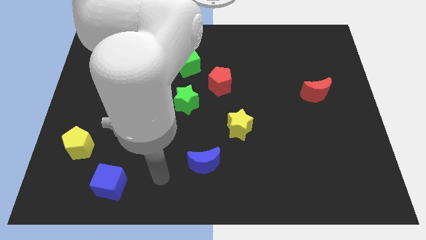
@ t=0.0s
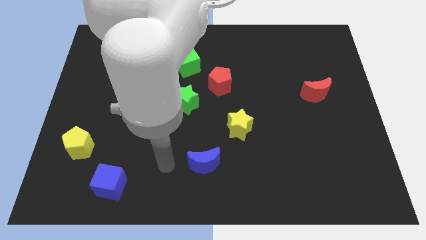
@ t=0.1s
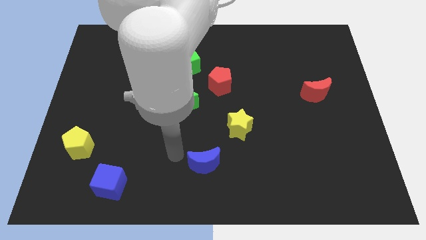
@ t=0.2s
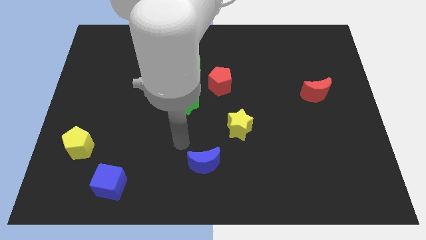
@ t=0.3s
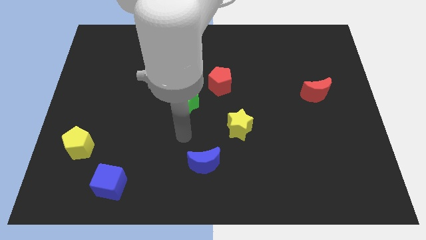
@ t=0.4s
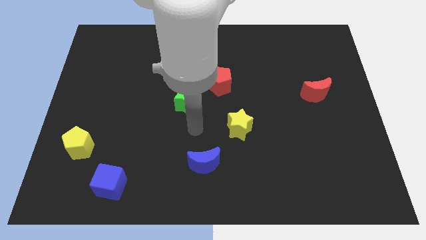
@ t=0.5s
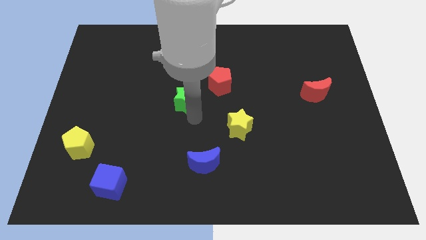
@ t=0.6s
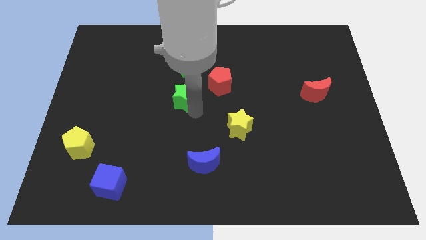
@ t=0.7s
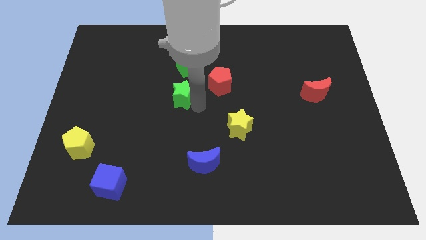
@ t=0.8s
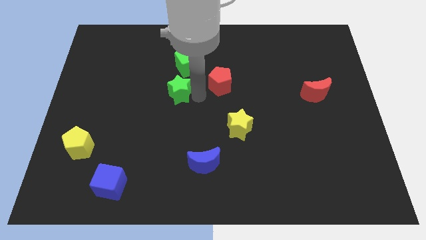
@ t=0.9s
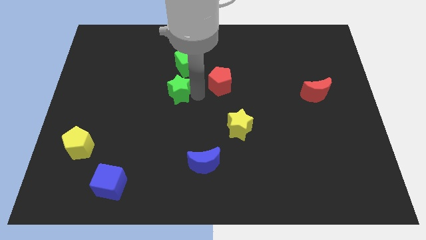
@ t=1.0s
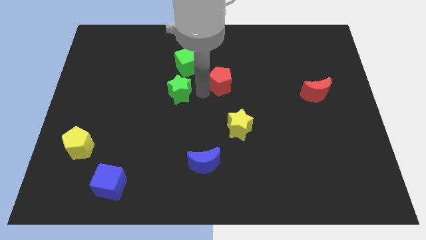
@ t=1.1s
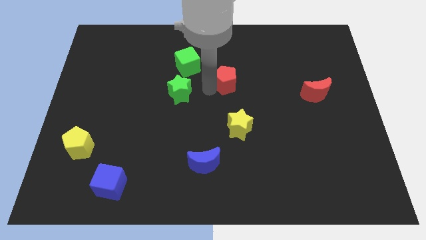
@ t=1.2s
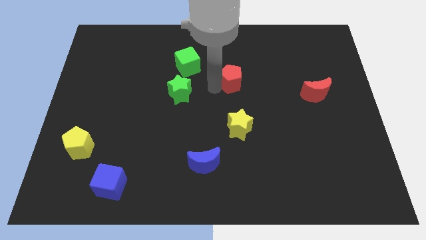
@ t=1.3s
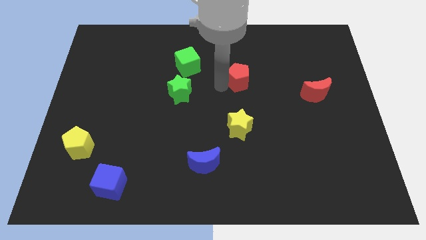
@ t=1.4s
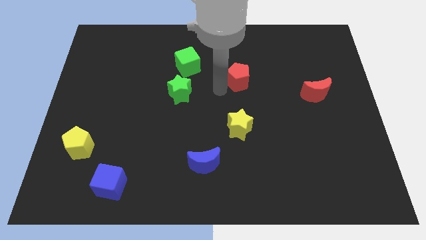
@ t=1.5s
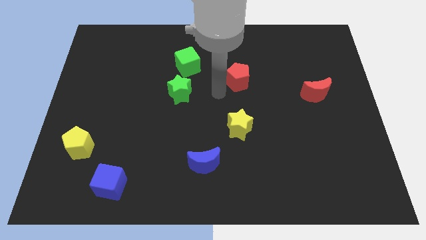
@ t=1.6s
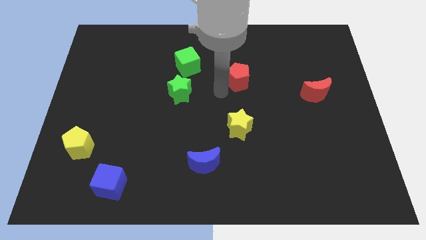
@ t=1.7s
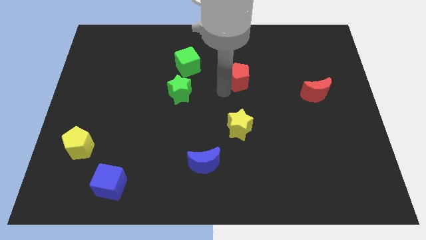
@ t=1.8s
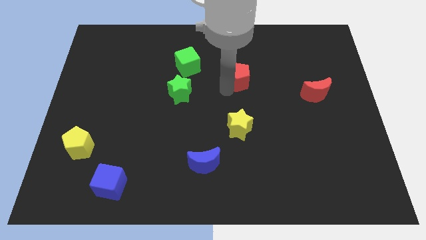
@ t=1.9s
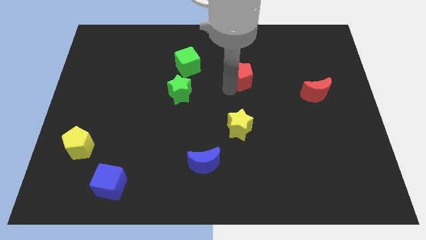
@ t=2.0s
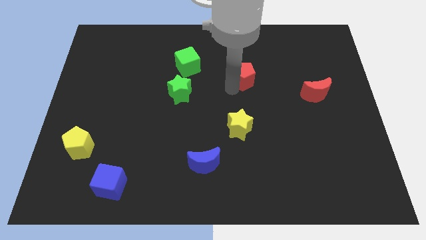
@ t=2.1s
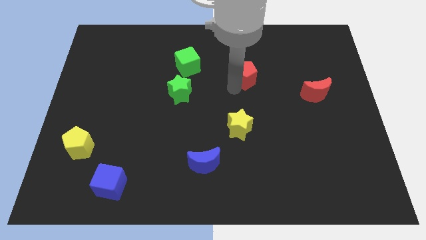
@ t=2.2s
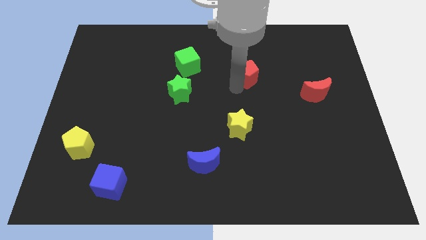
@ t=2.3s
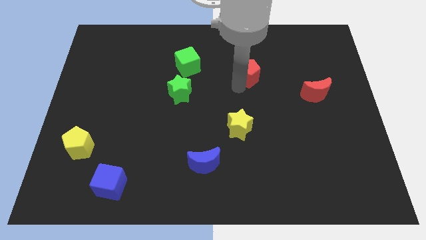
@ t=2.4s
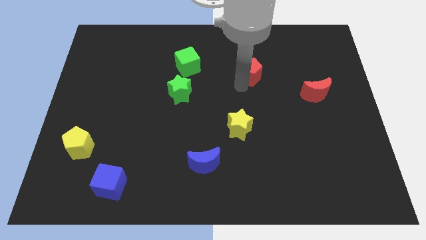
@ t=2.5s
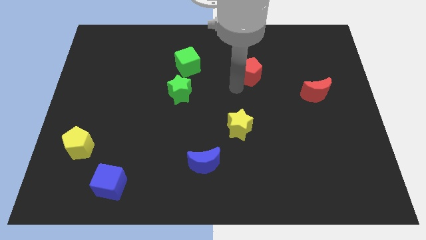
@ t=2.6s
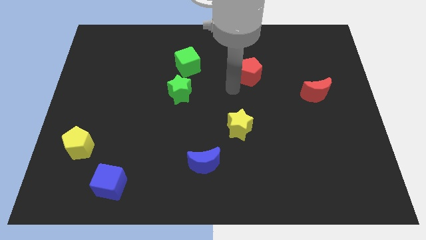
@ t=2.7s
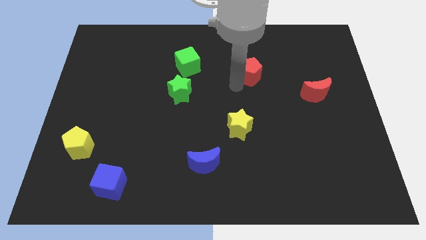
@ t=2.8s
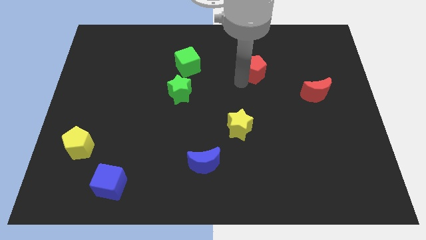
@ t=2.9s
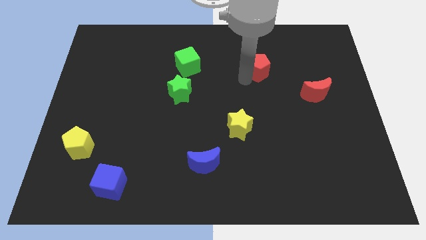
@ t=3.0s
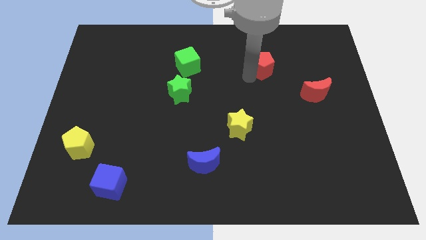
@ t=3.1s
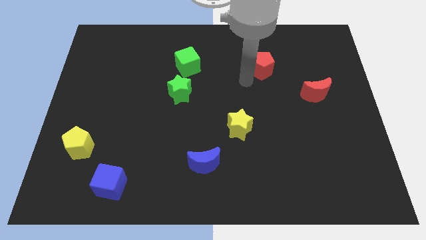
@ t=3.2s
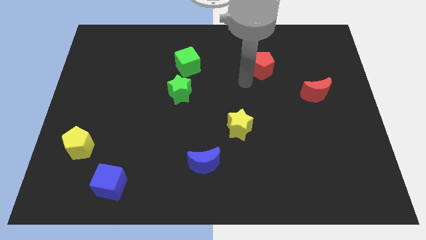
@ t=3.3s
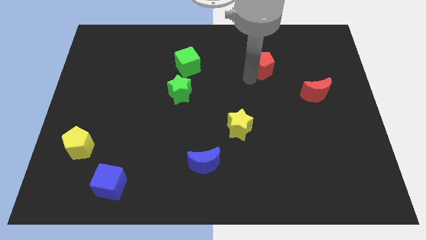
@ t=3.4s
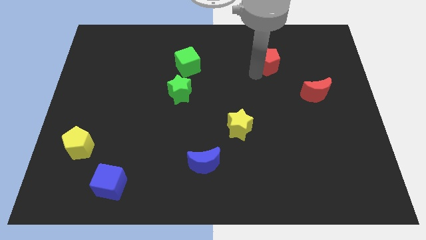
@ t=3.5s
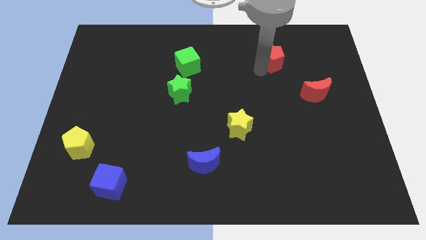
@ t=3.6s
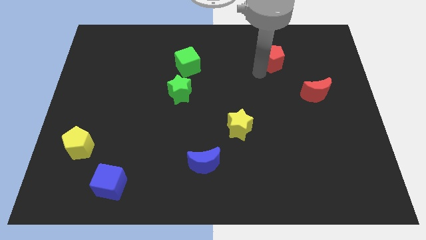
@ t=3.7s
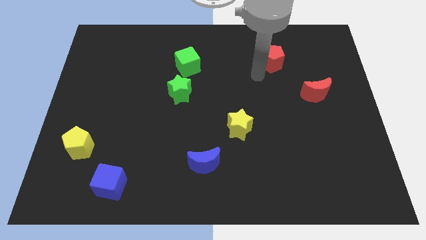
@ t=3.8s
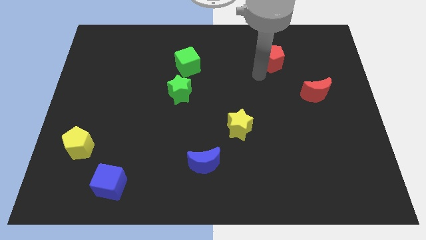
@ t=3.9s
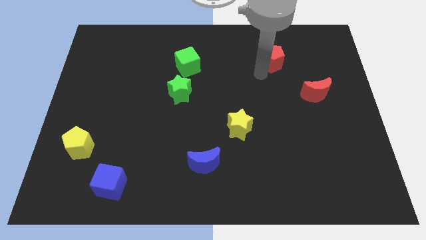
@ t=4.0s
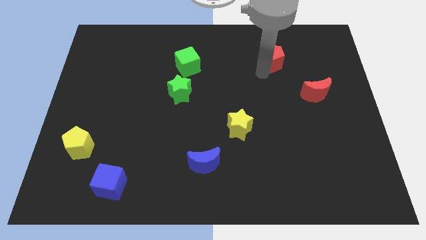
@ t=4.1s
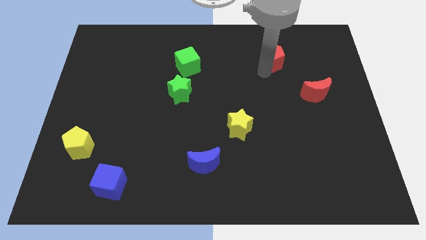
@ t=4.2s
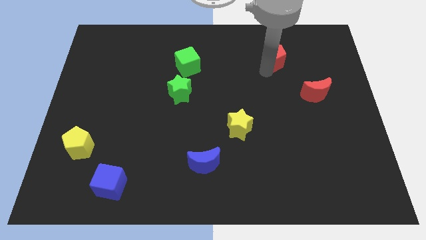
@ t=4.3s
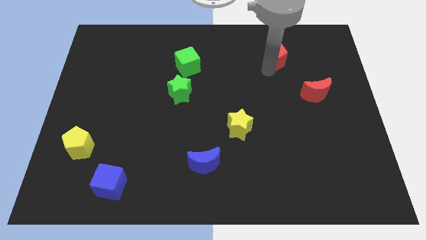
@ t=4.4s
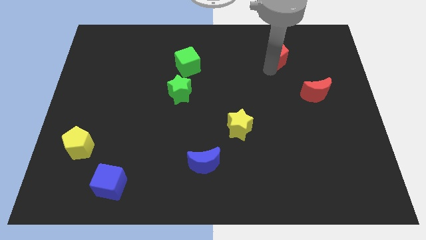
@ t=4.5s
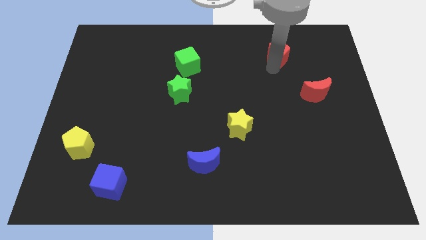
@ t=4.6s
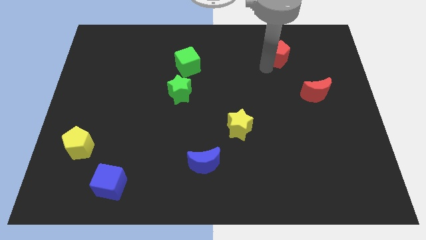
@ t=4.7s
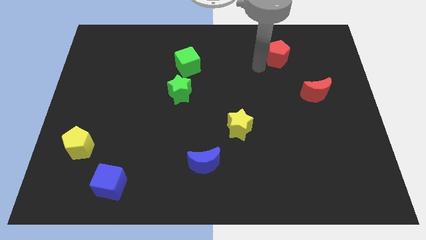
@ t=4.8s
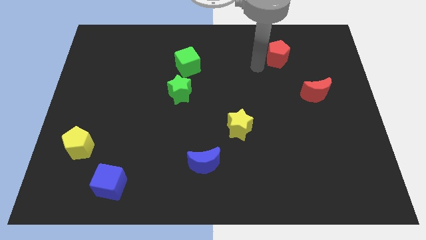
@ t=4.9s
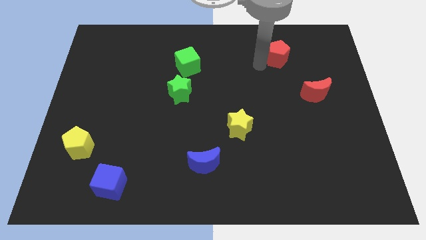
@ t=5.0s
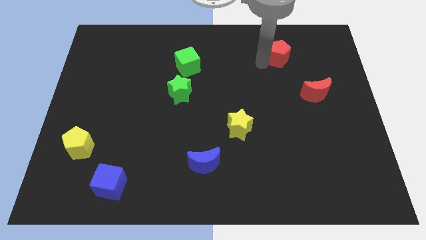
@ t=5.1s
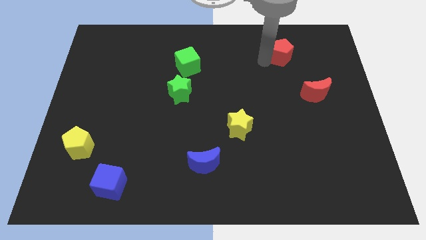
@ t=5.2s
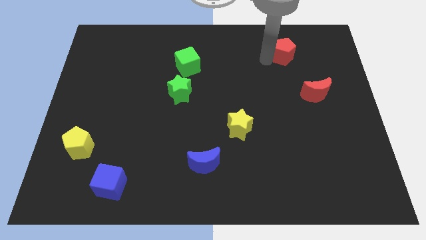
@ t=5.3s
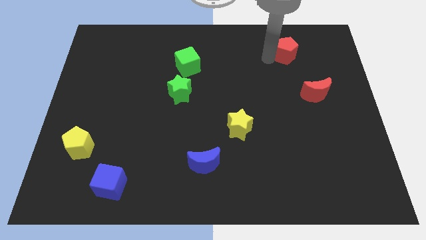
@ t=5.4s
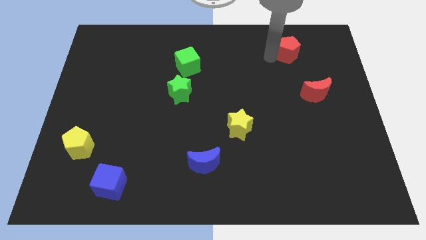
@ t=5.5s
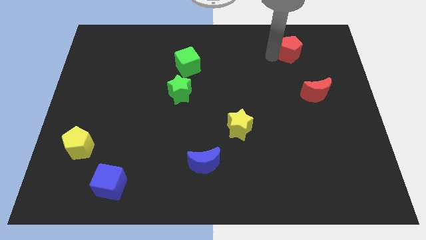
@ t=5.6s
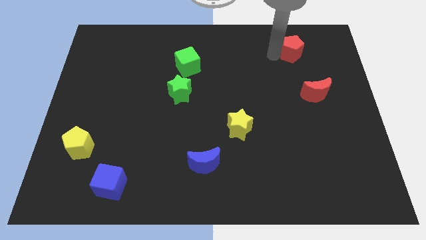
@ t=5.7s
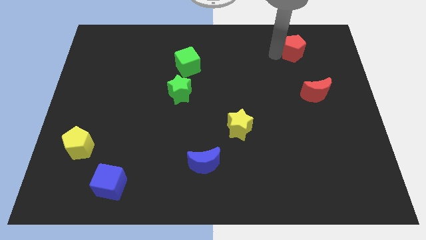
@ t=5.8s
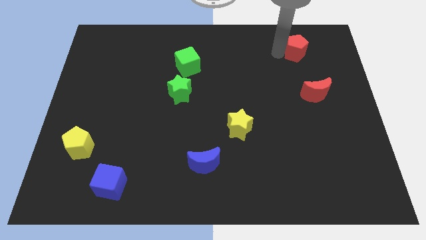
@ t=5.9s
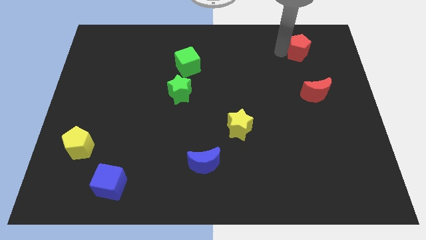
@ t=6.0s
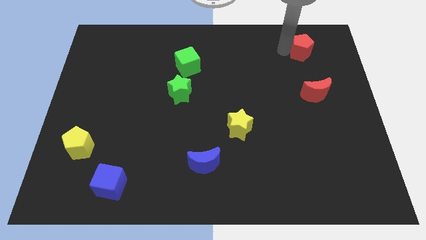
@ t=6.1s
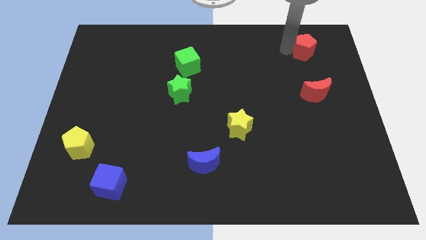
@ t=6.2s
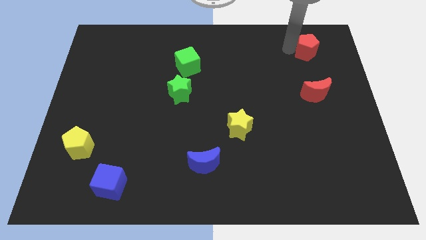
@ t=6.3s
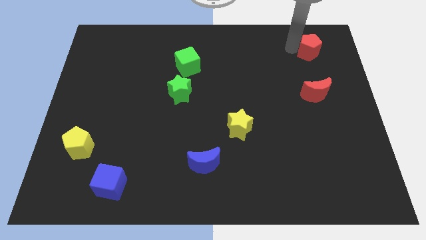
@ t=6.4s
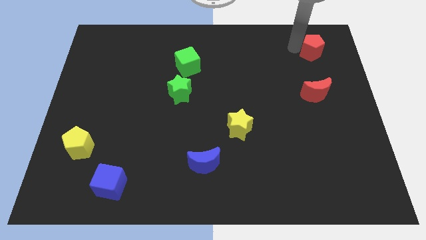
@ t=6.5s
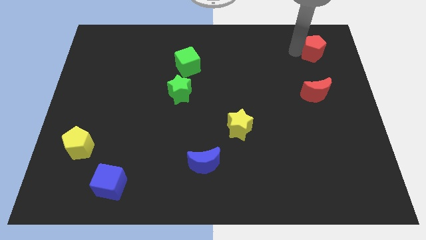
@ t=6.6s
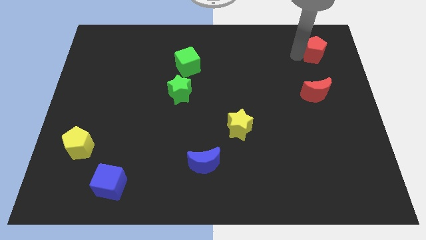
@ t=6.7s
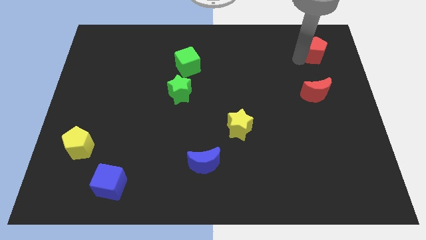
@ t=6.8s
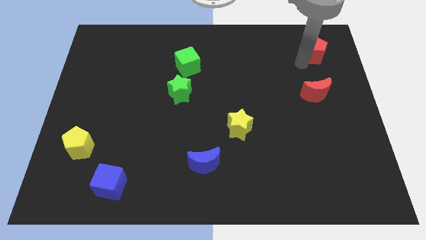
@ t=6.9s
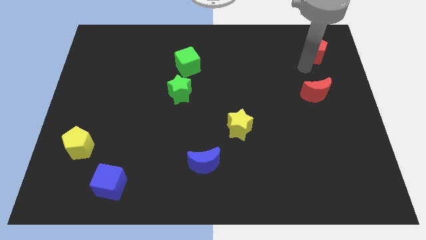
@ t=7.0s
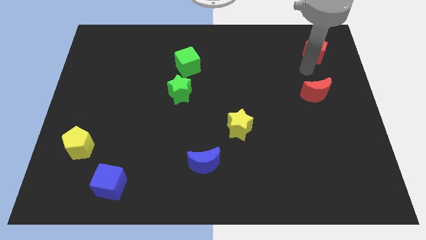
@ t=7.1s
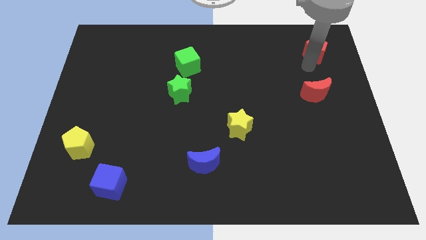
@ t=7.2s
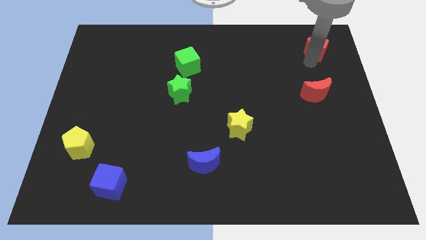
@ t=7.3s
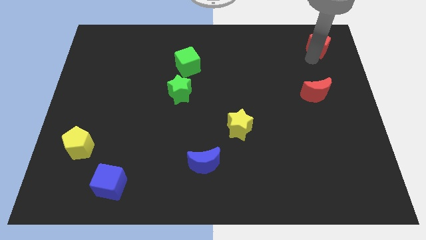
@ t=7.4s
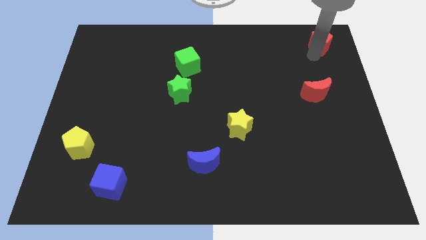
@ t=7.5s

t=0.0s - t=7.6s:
put the red pentagon to the top right of the board
